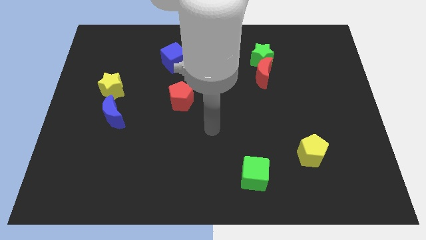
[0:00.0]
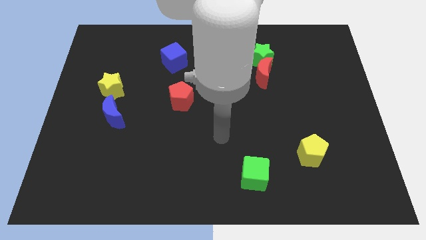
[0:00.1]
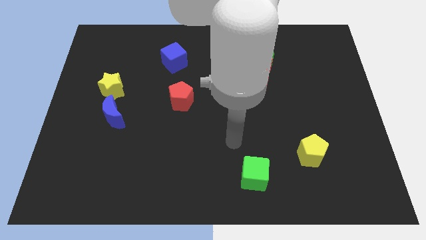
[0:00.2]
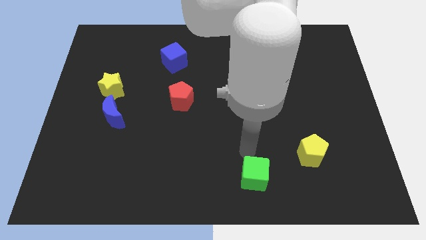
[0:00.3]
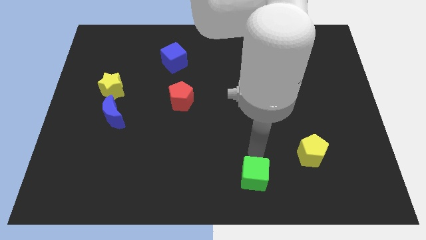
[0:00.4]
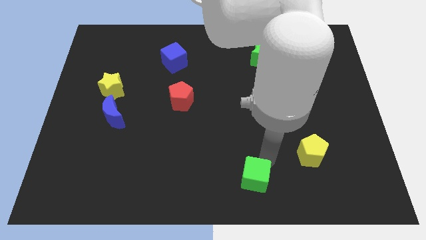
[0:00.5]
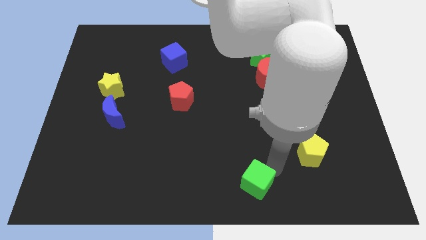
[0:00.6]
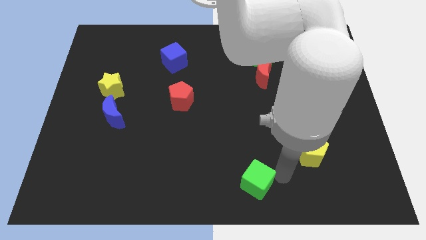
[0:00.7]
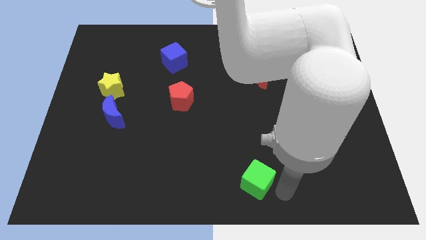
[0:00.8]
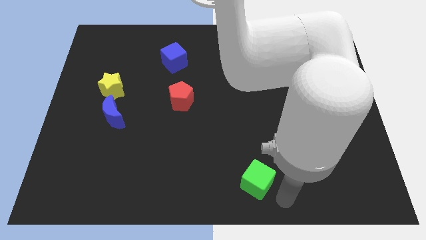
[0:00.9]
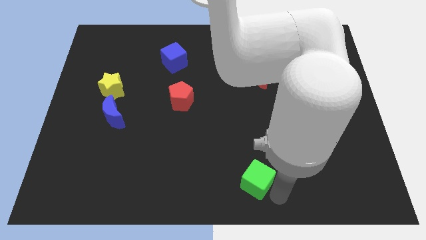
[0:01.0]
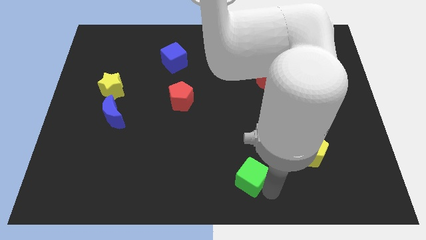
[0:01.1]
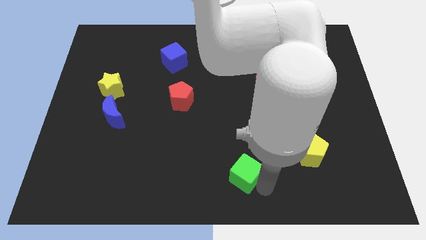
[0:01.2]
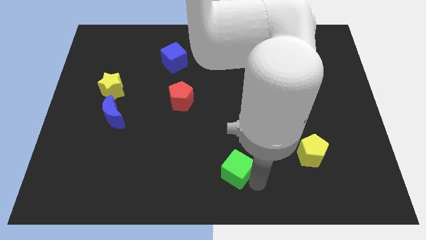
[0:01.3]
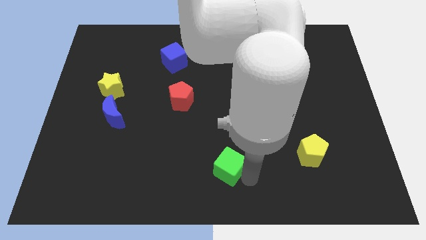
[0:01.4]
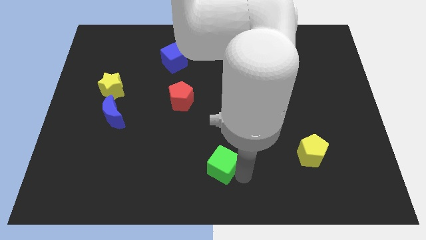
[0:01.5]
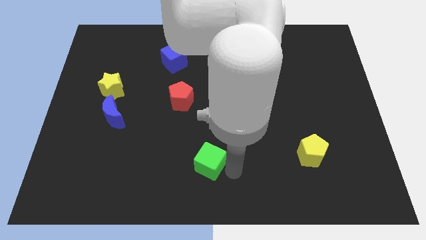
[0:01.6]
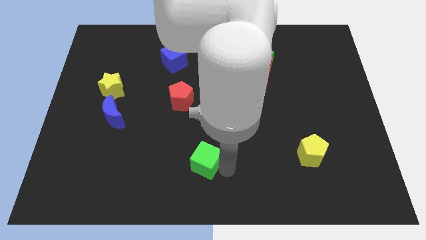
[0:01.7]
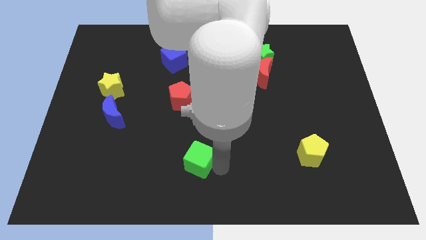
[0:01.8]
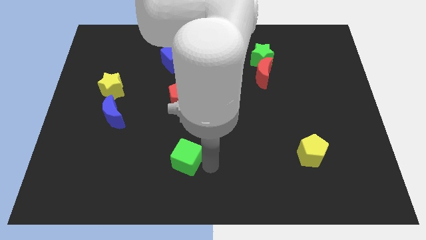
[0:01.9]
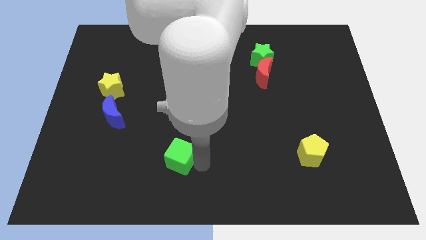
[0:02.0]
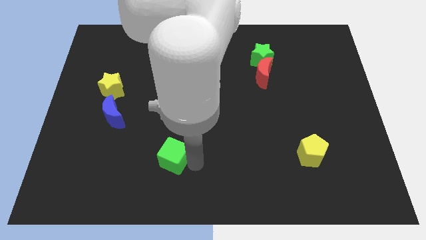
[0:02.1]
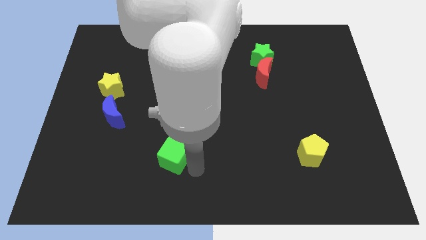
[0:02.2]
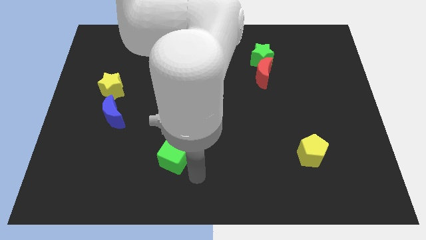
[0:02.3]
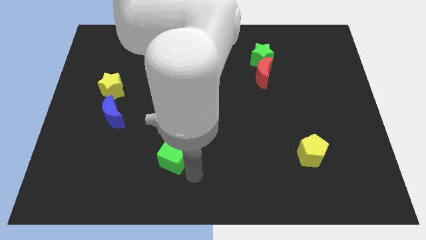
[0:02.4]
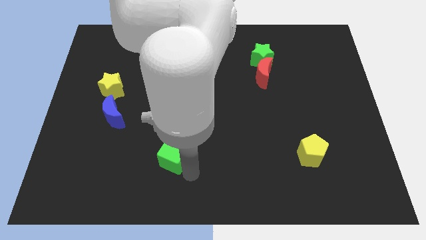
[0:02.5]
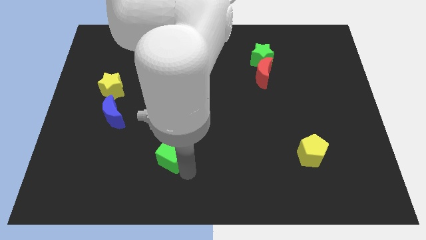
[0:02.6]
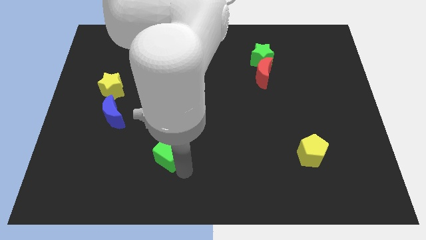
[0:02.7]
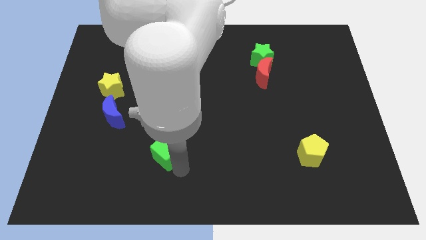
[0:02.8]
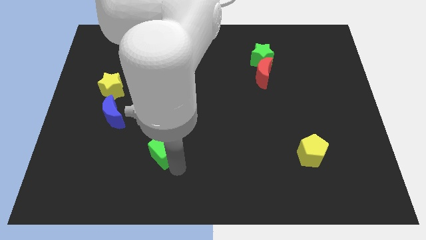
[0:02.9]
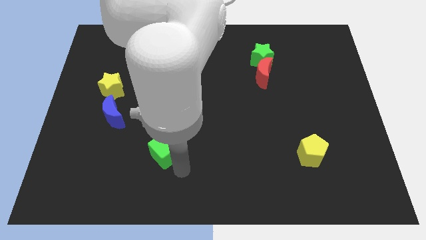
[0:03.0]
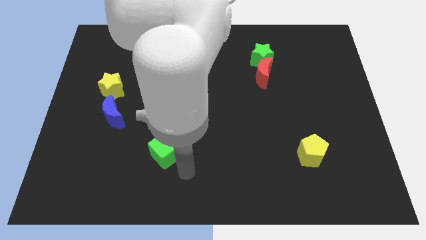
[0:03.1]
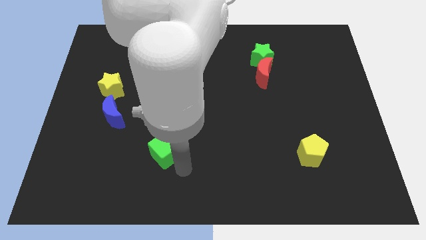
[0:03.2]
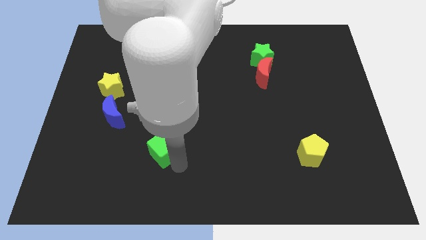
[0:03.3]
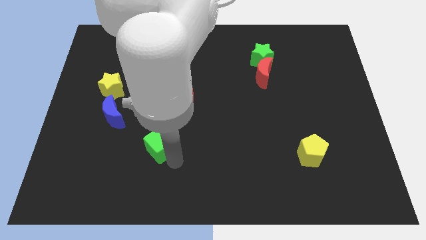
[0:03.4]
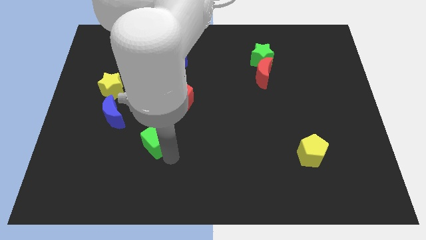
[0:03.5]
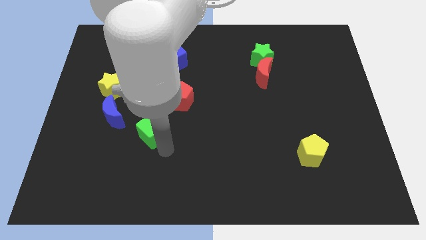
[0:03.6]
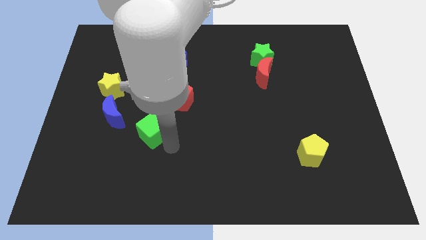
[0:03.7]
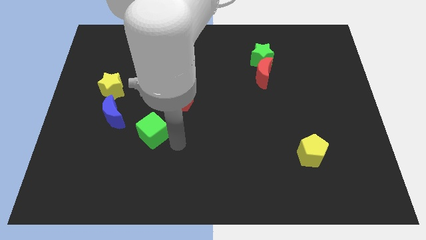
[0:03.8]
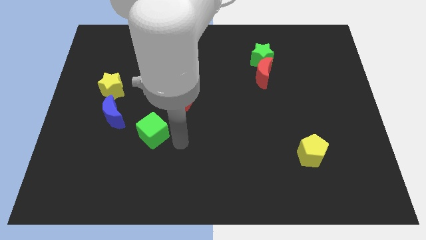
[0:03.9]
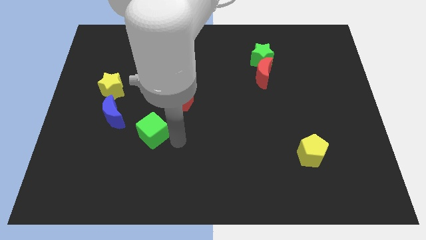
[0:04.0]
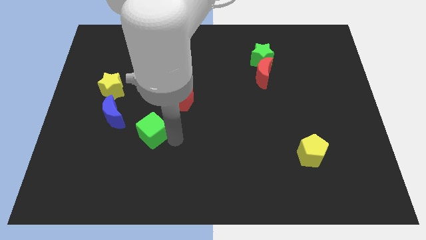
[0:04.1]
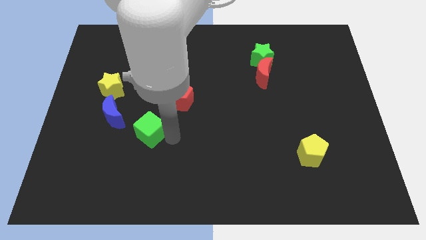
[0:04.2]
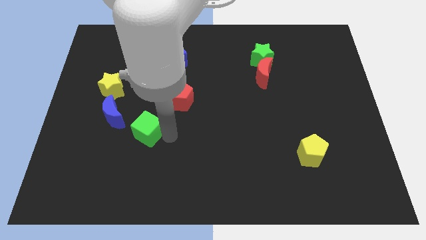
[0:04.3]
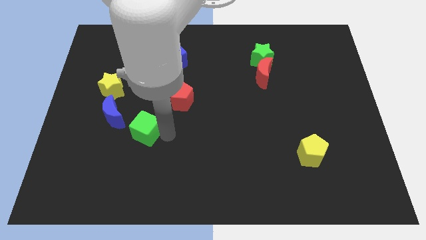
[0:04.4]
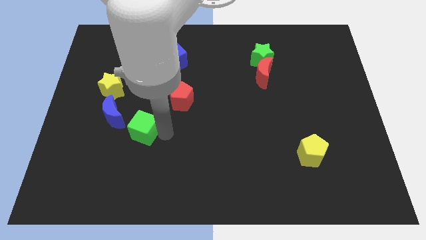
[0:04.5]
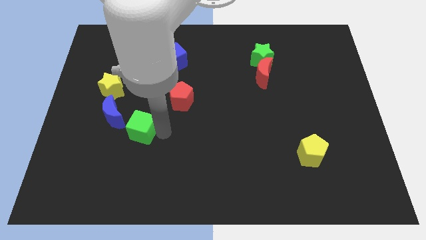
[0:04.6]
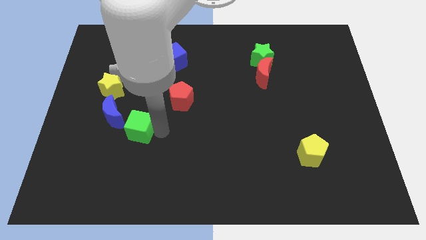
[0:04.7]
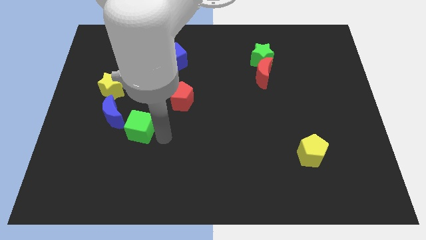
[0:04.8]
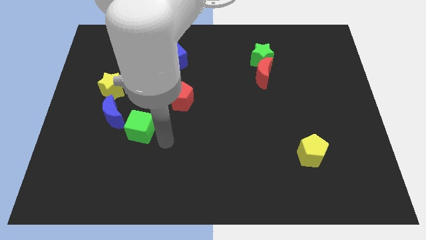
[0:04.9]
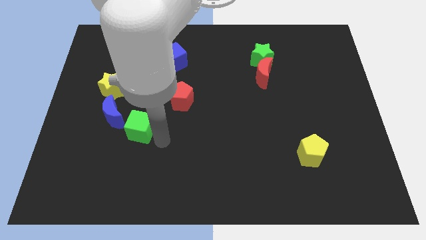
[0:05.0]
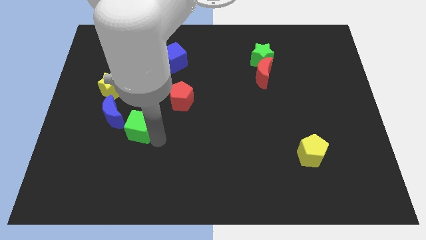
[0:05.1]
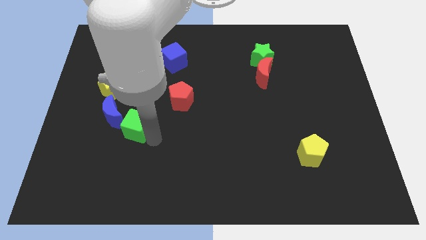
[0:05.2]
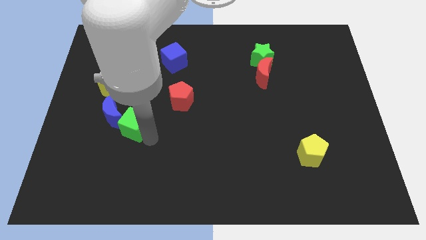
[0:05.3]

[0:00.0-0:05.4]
put the green cube close to the blue moon

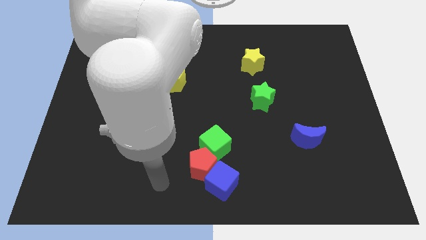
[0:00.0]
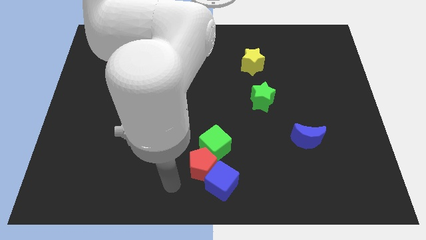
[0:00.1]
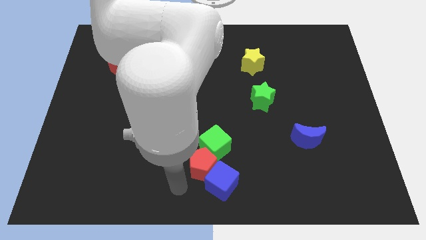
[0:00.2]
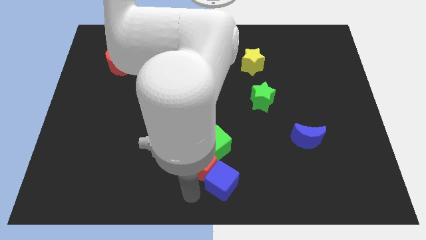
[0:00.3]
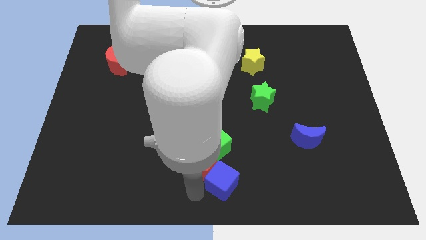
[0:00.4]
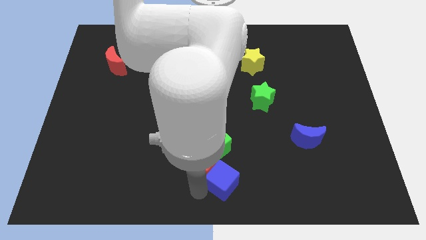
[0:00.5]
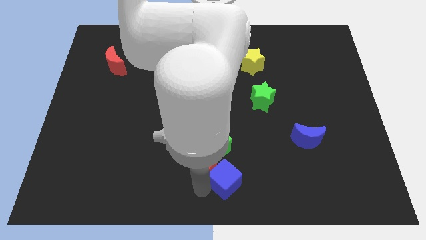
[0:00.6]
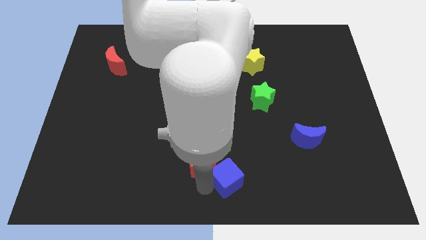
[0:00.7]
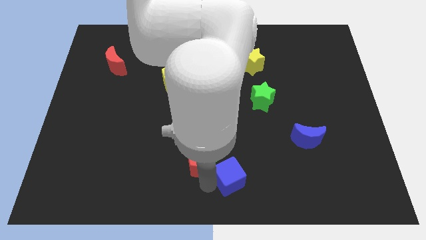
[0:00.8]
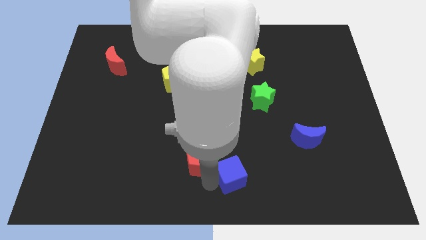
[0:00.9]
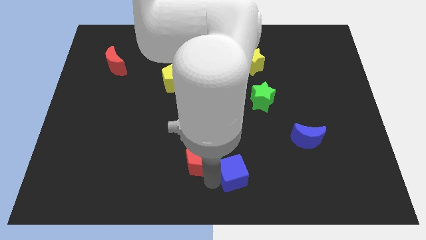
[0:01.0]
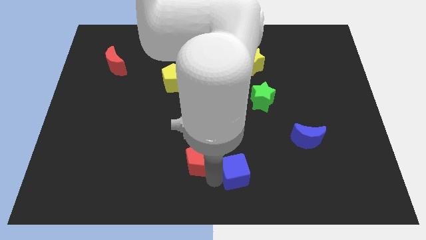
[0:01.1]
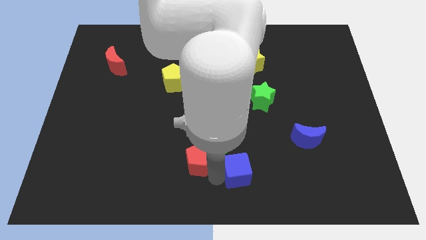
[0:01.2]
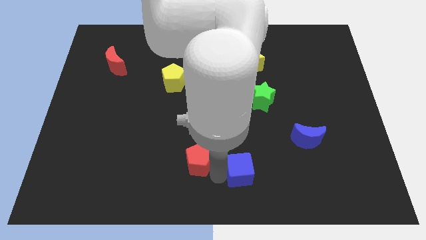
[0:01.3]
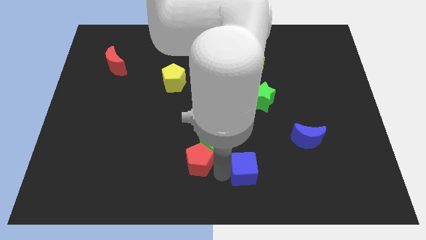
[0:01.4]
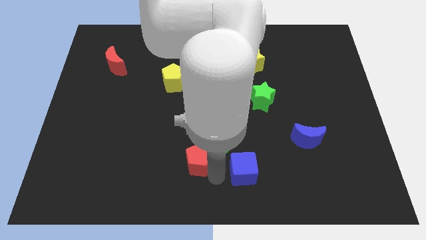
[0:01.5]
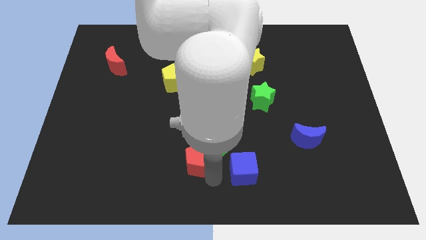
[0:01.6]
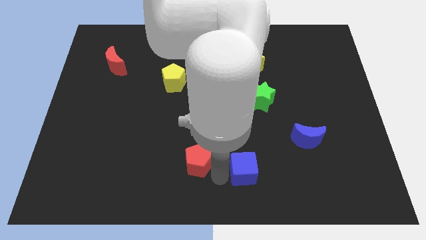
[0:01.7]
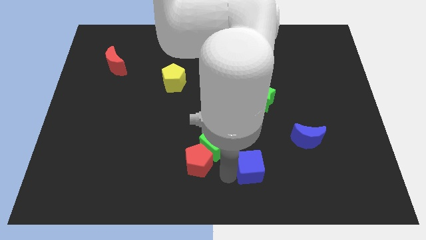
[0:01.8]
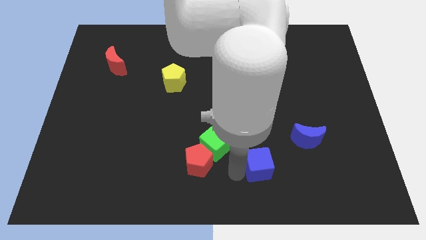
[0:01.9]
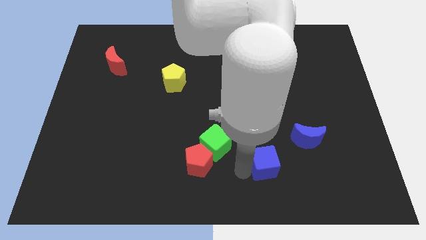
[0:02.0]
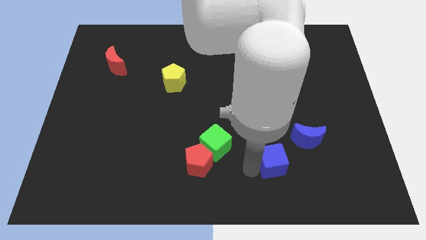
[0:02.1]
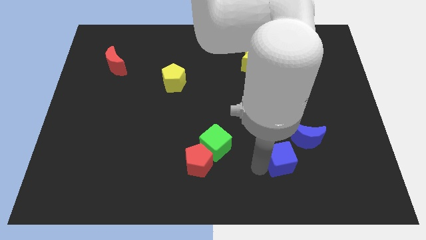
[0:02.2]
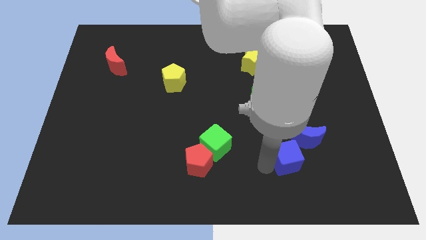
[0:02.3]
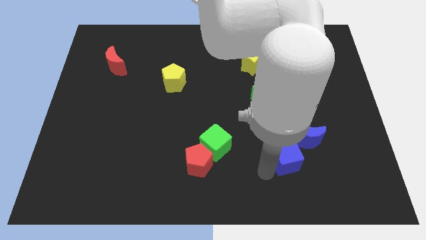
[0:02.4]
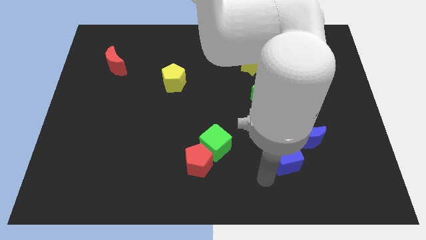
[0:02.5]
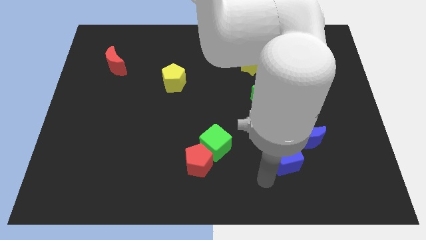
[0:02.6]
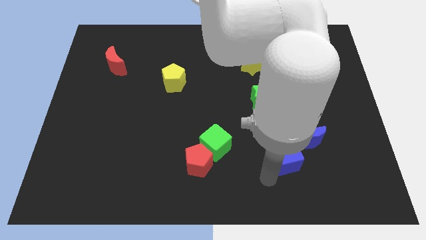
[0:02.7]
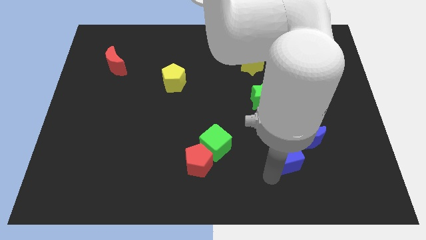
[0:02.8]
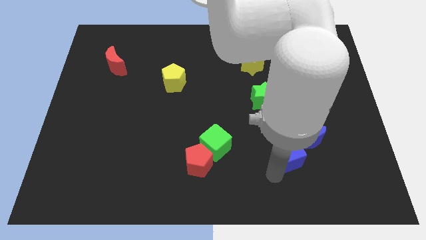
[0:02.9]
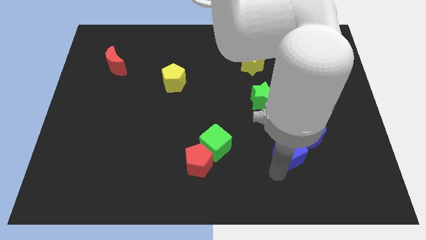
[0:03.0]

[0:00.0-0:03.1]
put the blue cube next to the blue moon
